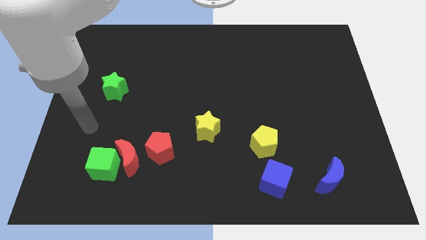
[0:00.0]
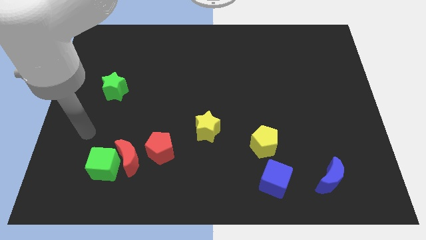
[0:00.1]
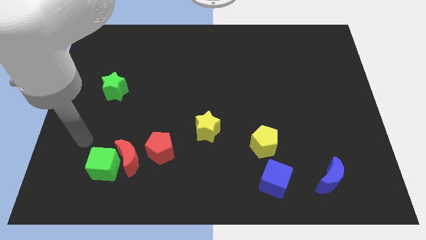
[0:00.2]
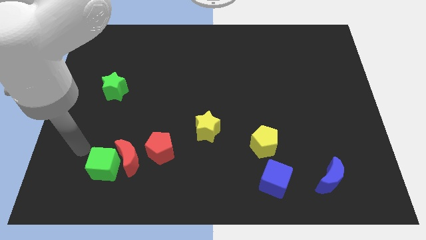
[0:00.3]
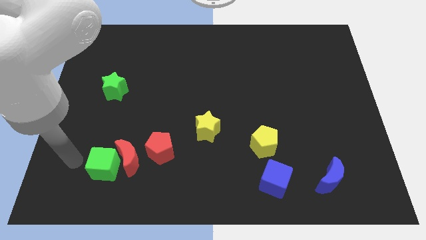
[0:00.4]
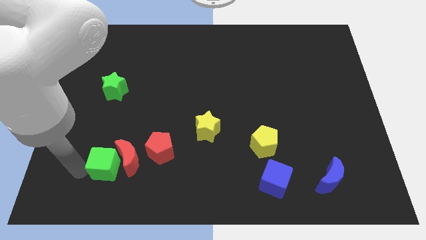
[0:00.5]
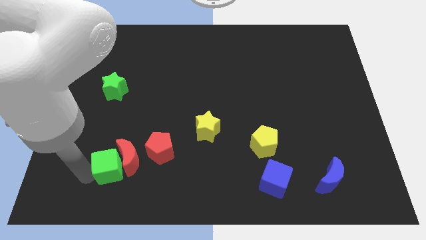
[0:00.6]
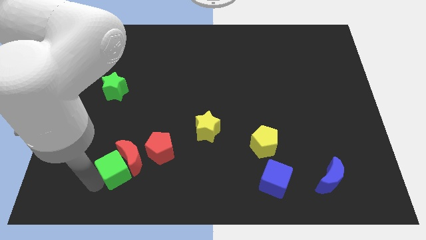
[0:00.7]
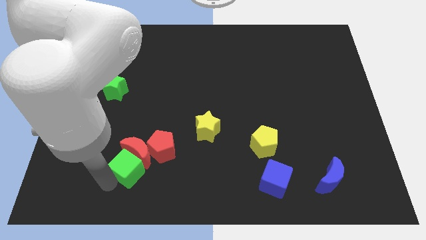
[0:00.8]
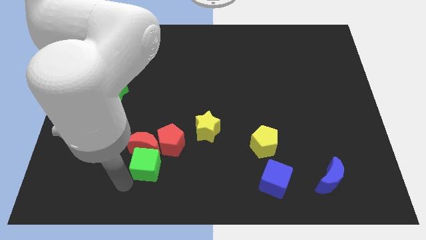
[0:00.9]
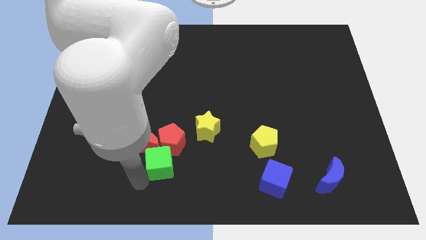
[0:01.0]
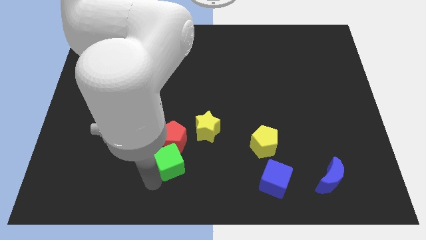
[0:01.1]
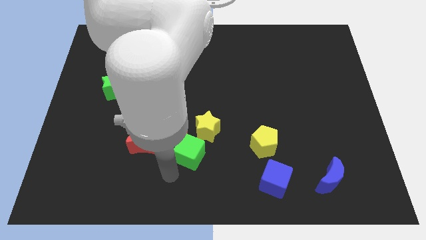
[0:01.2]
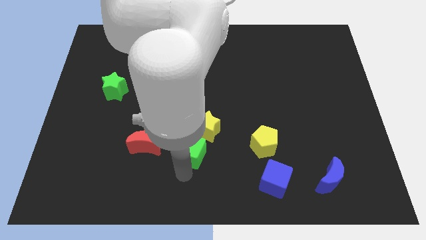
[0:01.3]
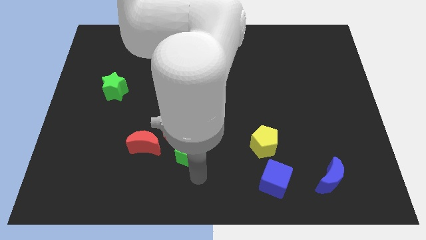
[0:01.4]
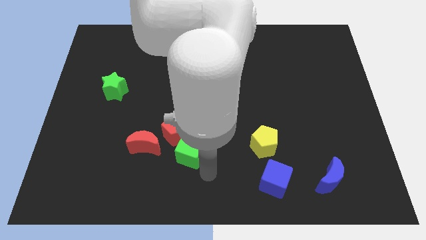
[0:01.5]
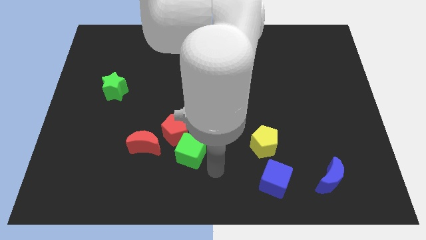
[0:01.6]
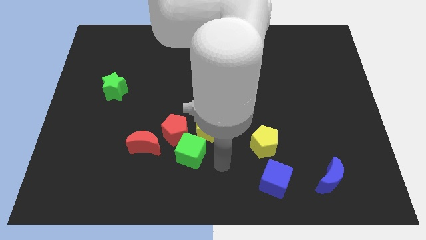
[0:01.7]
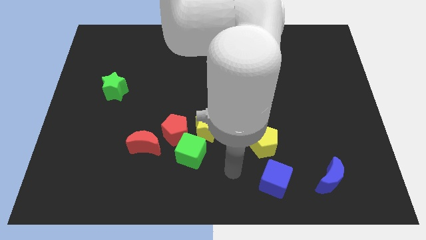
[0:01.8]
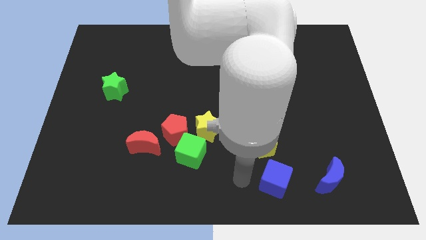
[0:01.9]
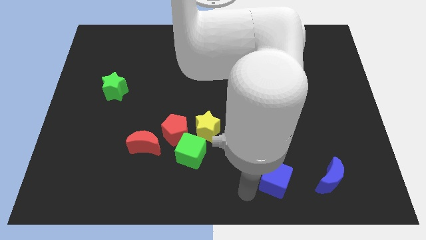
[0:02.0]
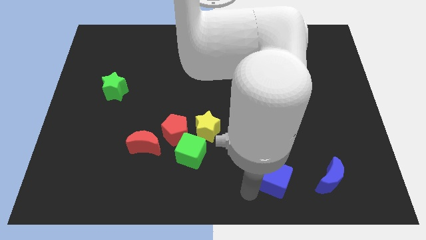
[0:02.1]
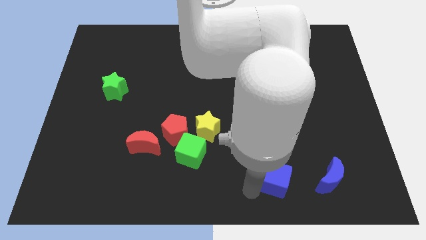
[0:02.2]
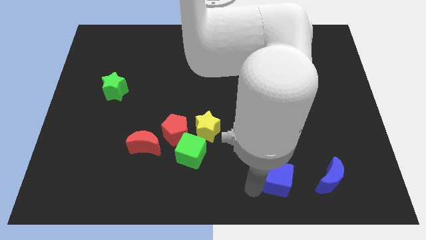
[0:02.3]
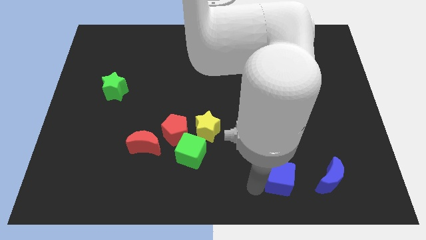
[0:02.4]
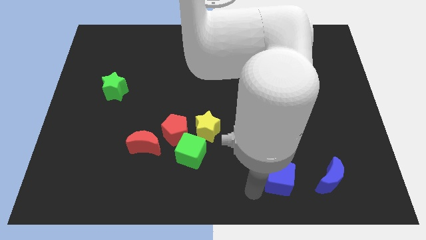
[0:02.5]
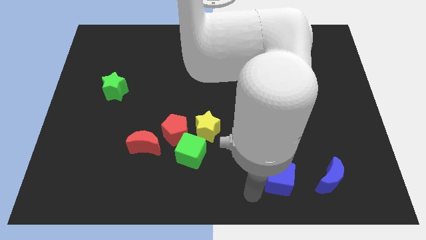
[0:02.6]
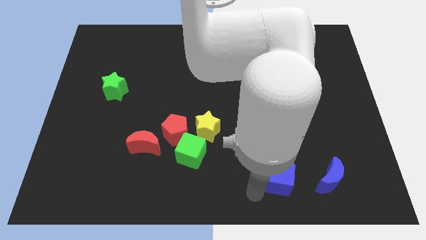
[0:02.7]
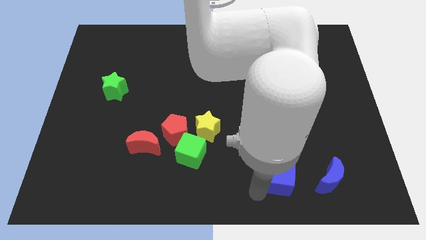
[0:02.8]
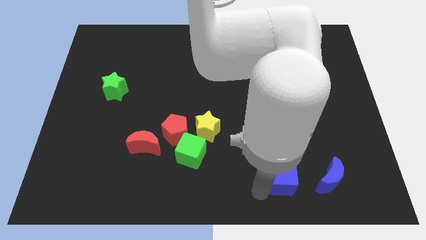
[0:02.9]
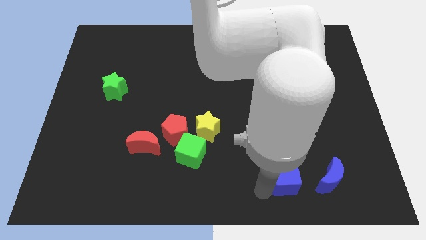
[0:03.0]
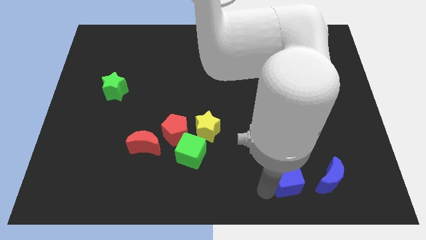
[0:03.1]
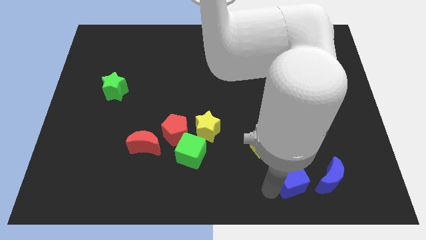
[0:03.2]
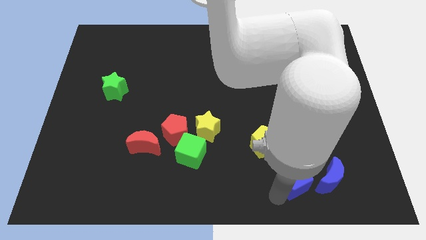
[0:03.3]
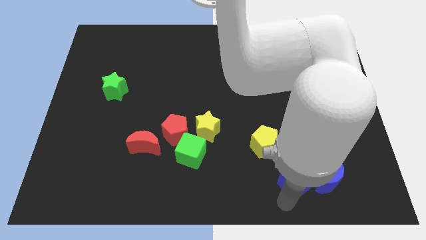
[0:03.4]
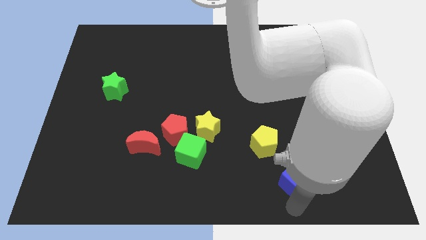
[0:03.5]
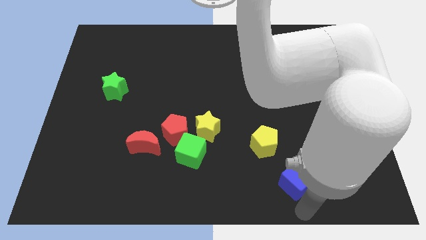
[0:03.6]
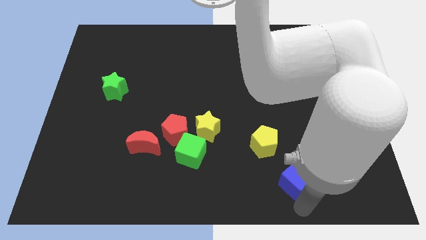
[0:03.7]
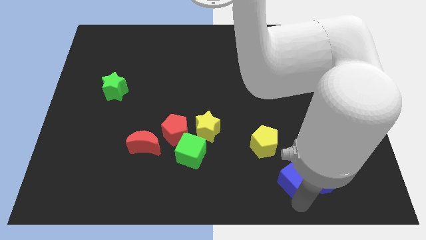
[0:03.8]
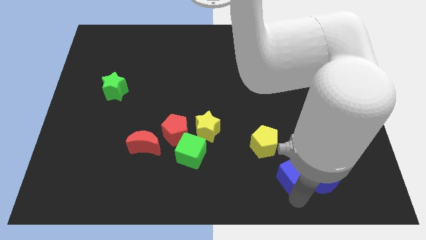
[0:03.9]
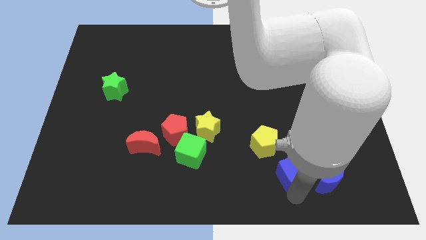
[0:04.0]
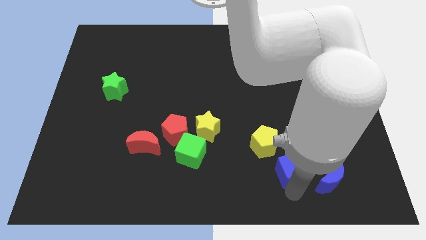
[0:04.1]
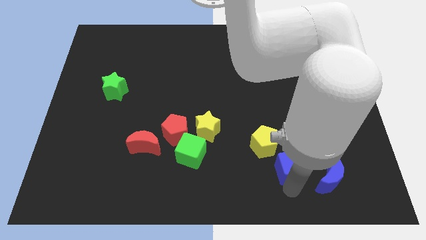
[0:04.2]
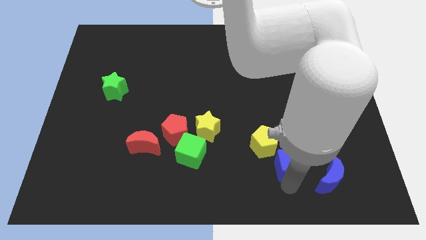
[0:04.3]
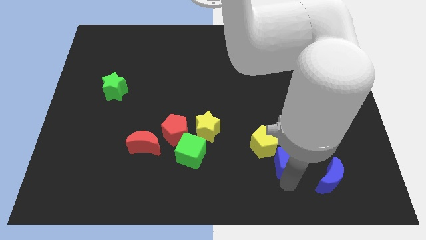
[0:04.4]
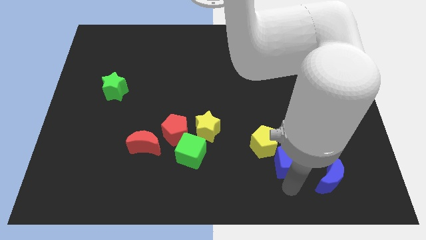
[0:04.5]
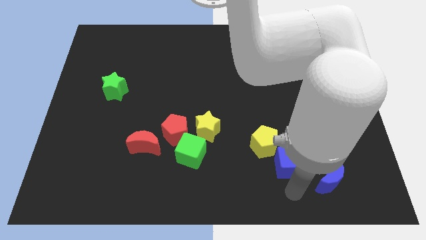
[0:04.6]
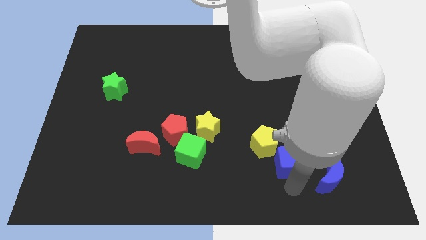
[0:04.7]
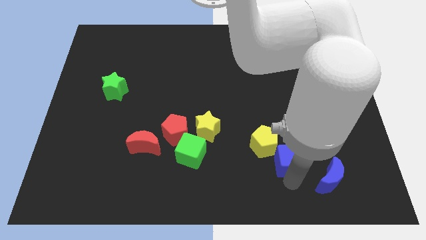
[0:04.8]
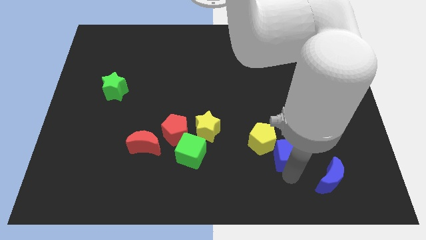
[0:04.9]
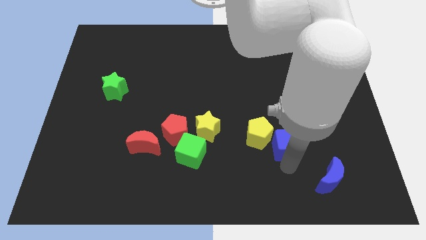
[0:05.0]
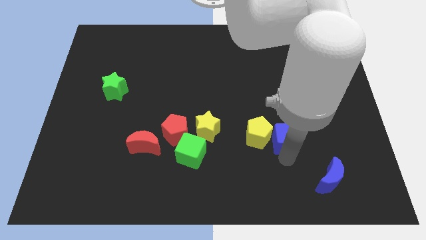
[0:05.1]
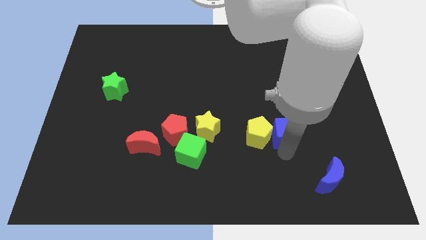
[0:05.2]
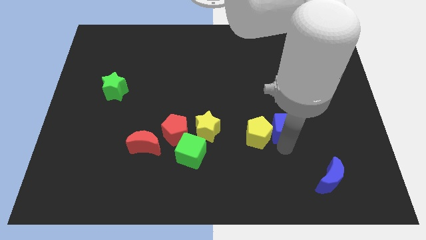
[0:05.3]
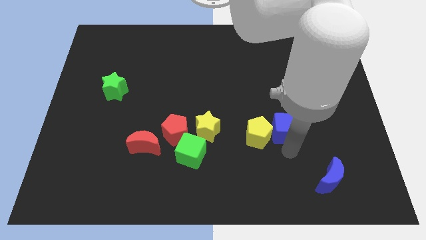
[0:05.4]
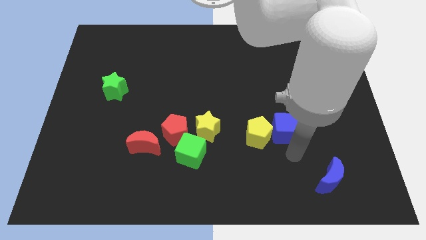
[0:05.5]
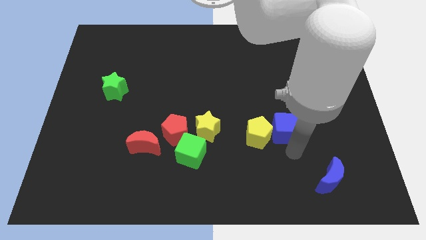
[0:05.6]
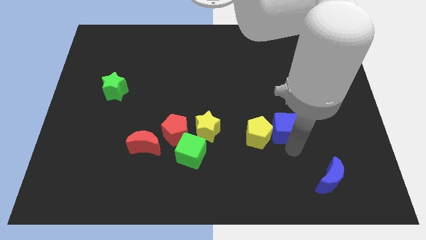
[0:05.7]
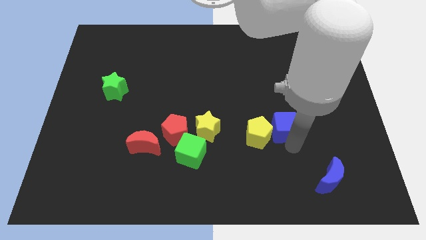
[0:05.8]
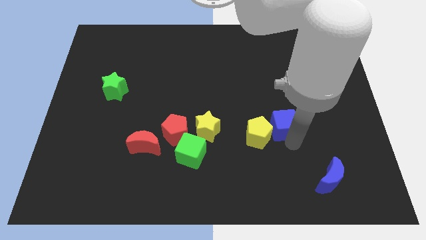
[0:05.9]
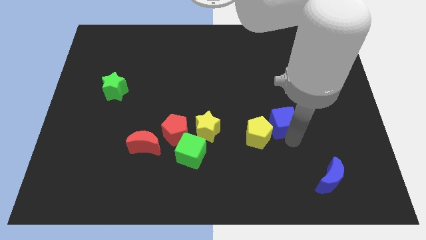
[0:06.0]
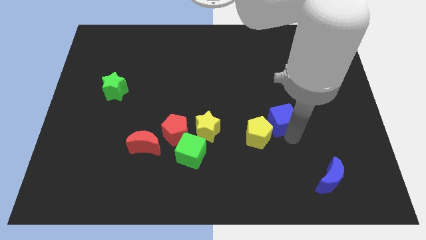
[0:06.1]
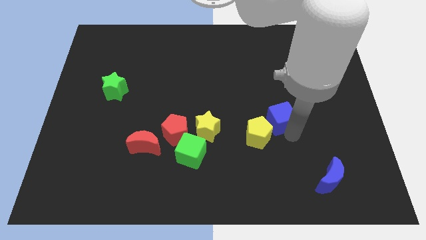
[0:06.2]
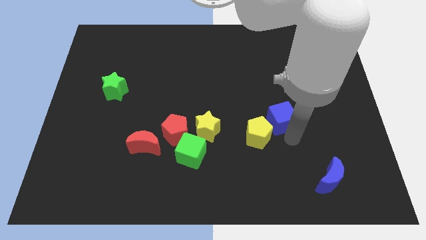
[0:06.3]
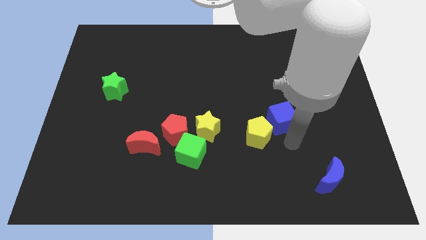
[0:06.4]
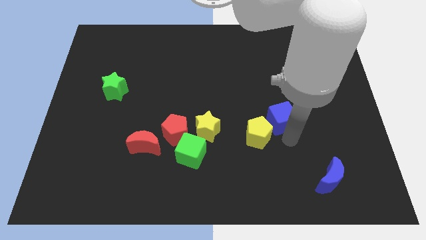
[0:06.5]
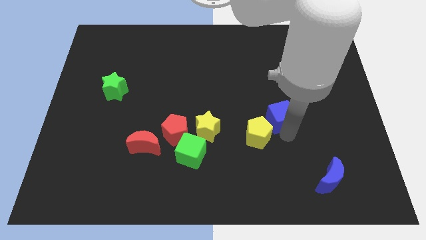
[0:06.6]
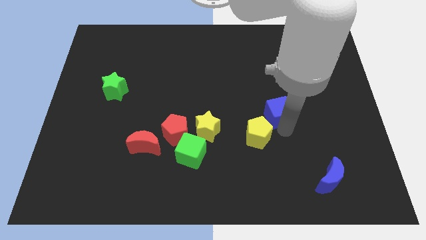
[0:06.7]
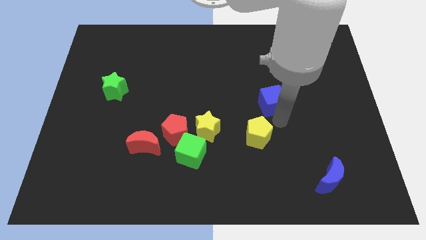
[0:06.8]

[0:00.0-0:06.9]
move the blue cube up

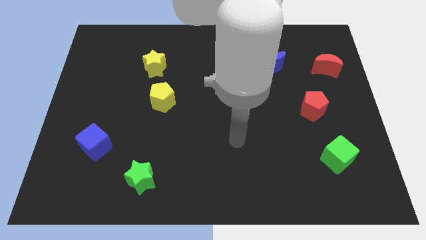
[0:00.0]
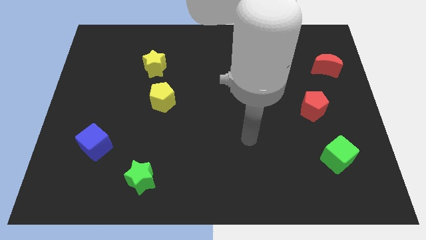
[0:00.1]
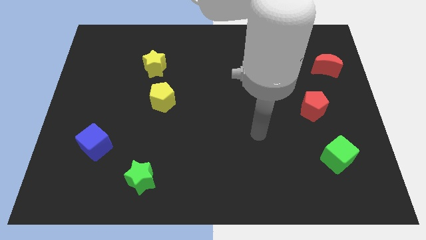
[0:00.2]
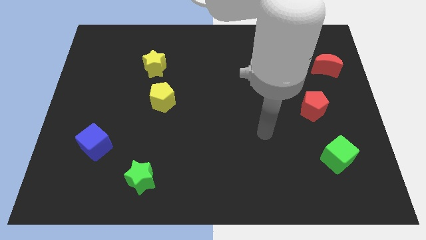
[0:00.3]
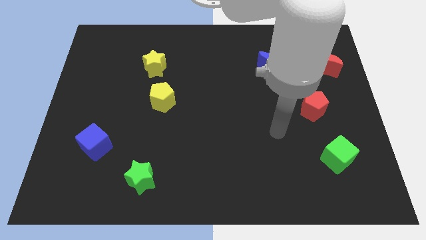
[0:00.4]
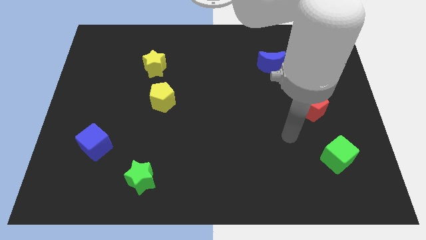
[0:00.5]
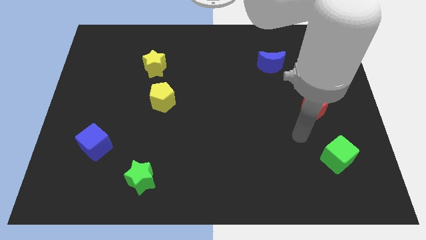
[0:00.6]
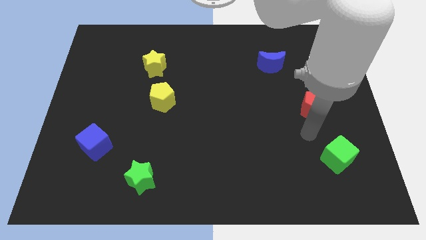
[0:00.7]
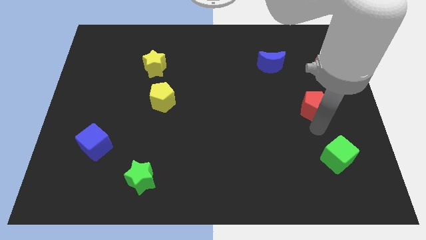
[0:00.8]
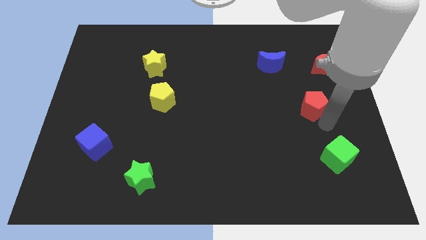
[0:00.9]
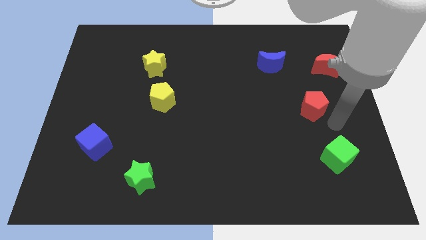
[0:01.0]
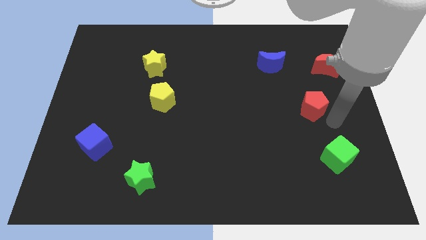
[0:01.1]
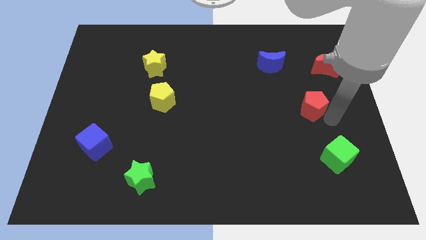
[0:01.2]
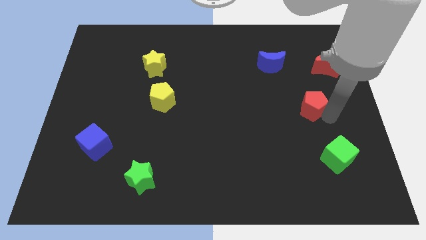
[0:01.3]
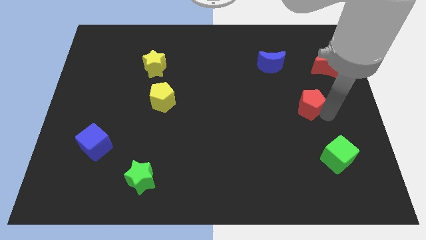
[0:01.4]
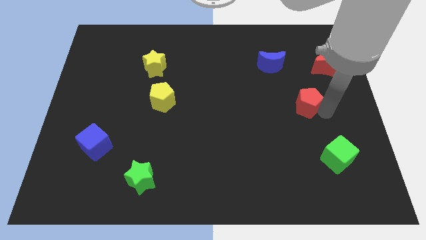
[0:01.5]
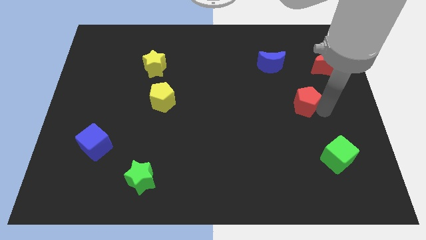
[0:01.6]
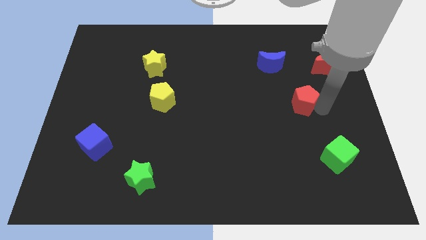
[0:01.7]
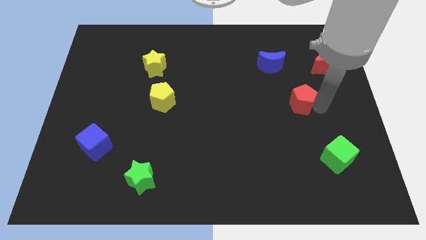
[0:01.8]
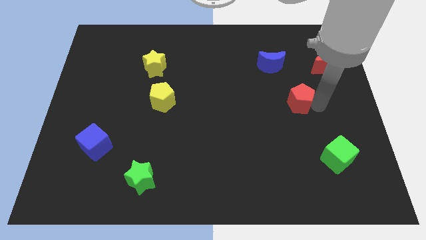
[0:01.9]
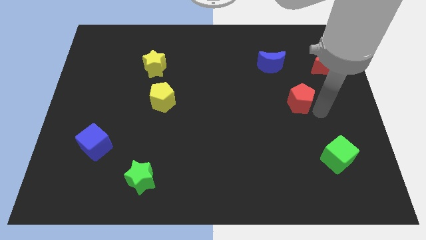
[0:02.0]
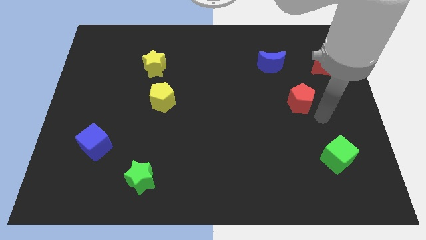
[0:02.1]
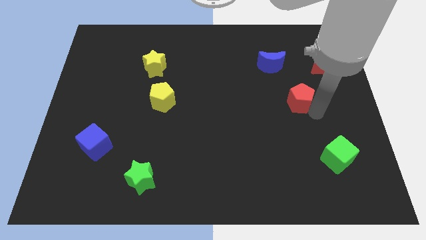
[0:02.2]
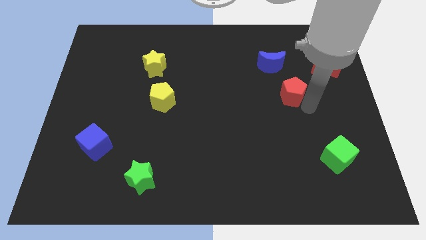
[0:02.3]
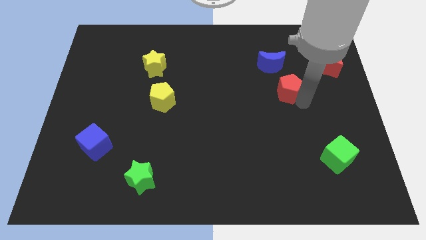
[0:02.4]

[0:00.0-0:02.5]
move the red pentagon slightly up and then to the left
